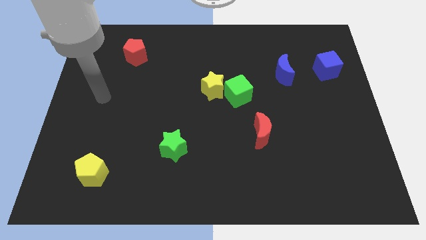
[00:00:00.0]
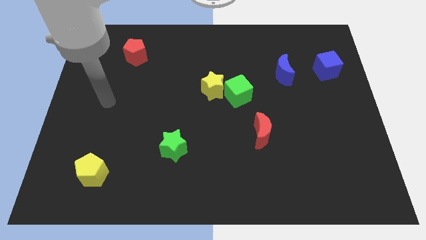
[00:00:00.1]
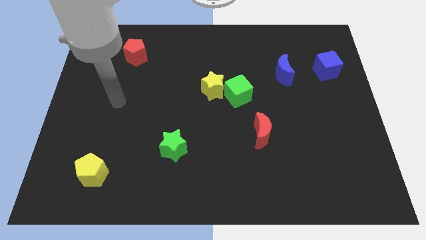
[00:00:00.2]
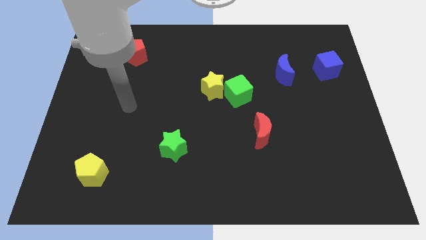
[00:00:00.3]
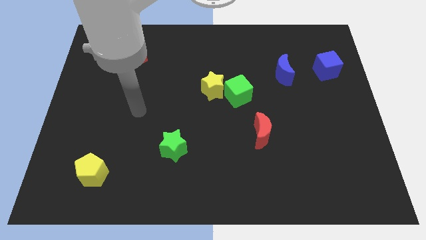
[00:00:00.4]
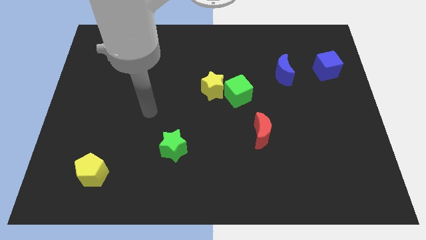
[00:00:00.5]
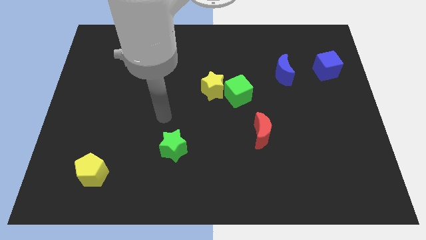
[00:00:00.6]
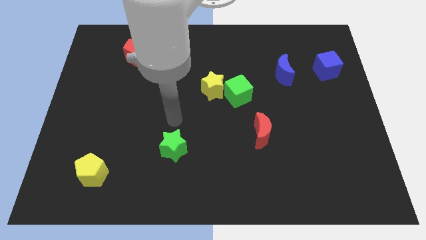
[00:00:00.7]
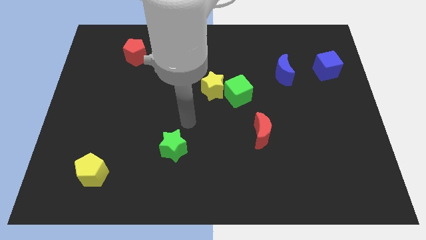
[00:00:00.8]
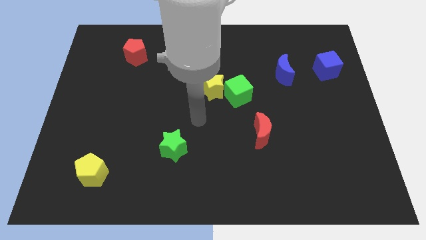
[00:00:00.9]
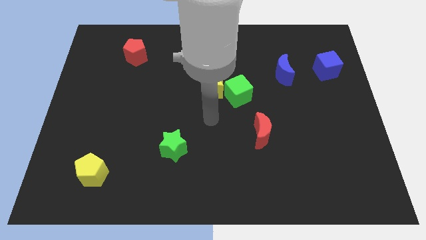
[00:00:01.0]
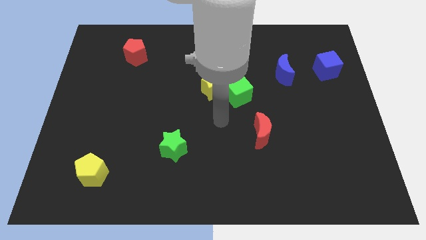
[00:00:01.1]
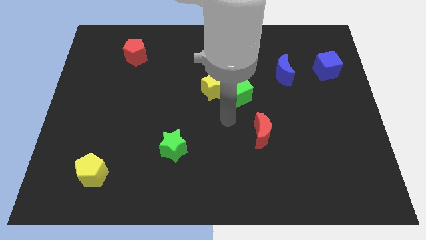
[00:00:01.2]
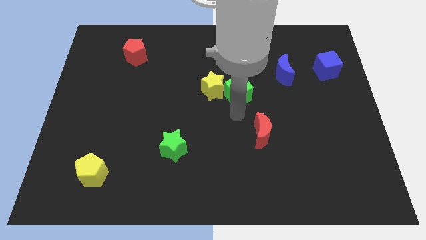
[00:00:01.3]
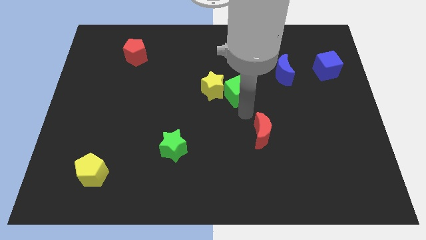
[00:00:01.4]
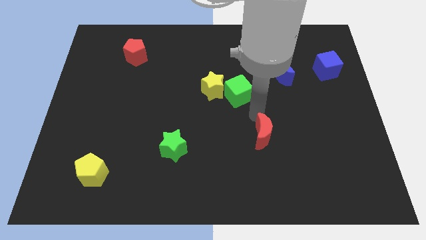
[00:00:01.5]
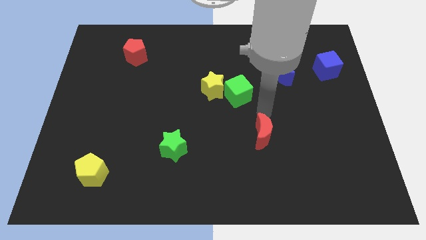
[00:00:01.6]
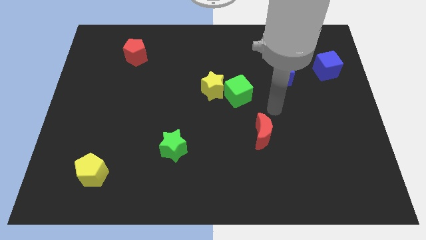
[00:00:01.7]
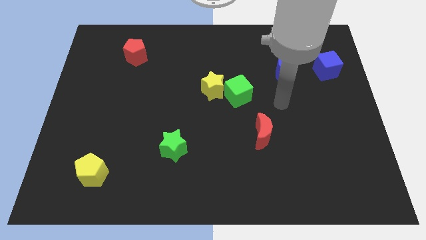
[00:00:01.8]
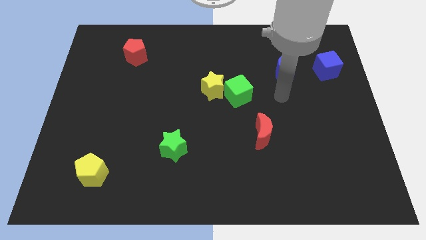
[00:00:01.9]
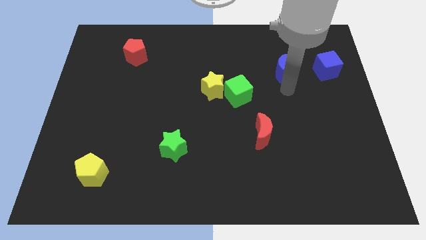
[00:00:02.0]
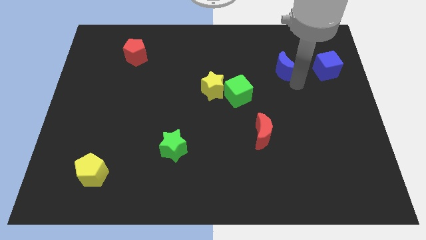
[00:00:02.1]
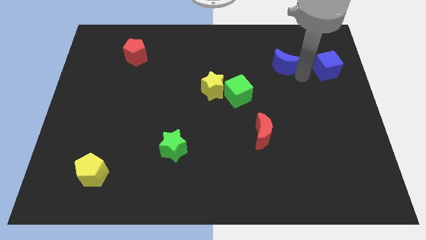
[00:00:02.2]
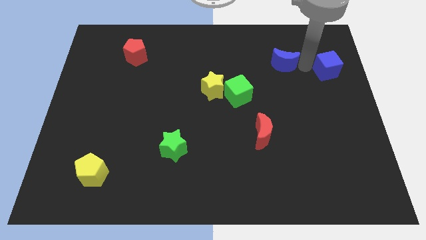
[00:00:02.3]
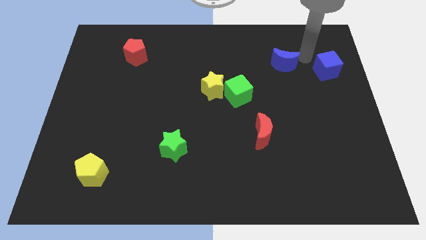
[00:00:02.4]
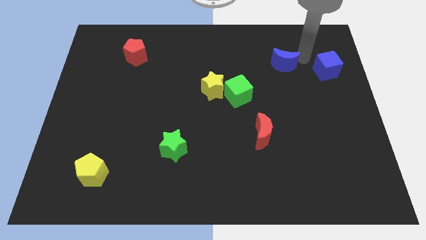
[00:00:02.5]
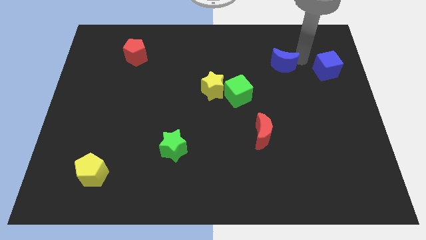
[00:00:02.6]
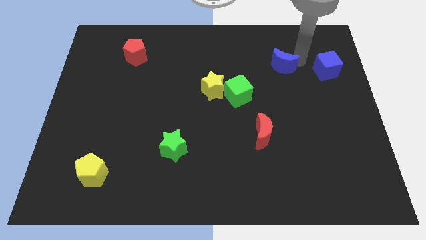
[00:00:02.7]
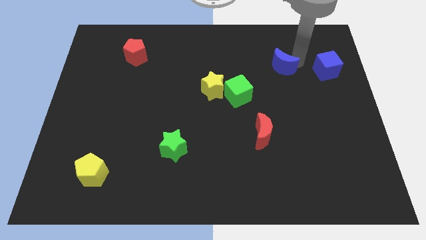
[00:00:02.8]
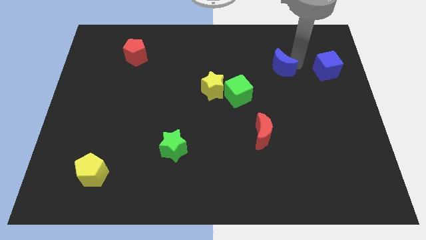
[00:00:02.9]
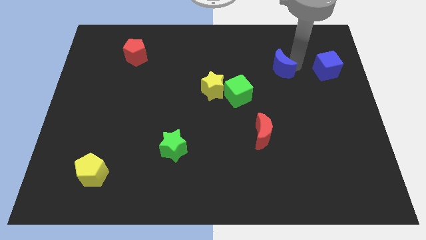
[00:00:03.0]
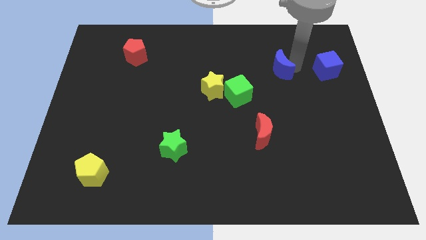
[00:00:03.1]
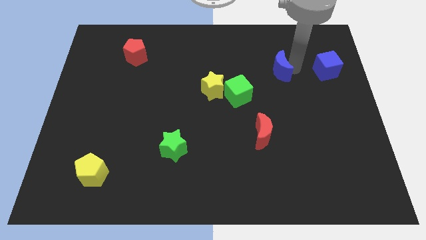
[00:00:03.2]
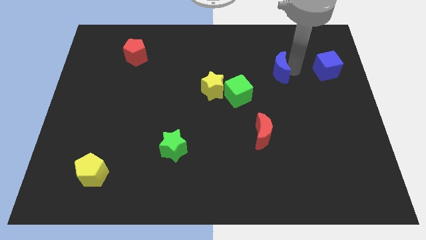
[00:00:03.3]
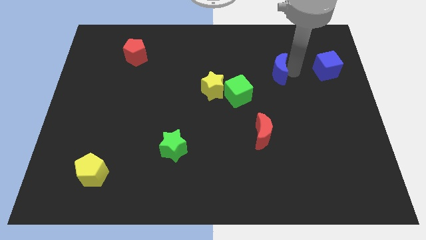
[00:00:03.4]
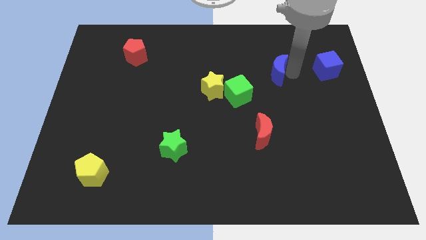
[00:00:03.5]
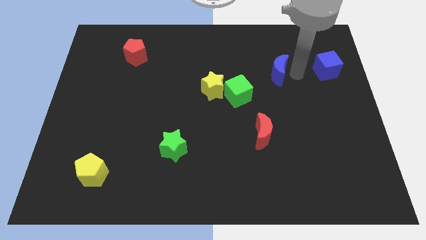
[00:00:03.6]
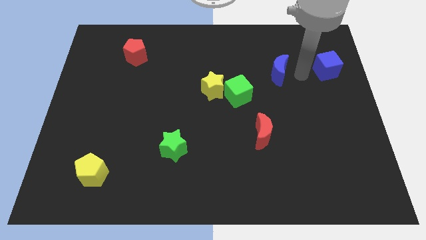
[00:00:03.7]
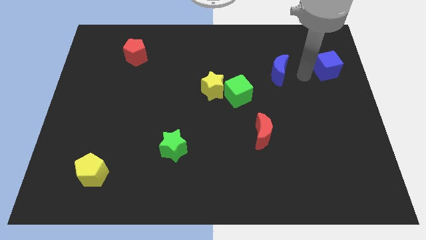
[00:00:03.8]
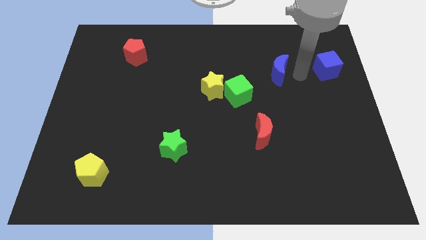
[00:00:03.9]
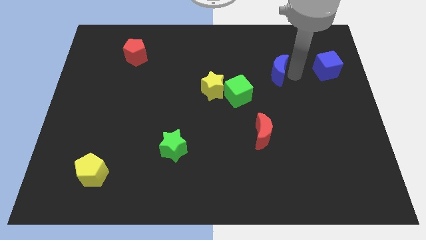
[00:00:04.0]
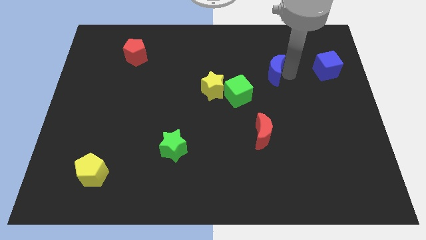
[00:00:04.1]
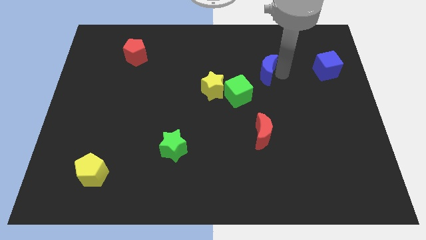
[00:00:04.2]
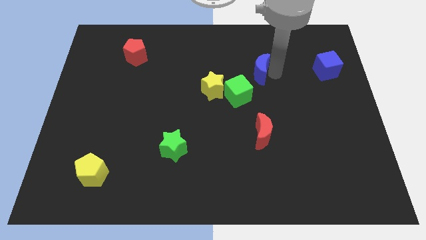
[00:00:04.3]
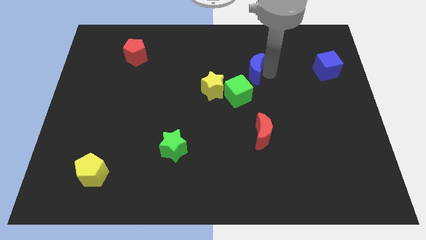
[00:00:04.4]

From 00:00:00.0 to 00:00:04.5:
push the blue moon left a bit

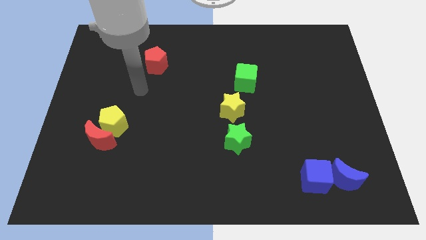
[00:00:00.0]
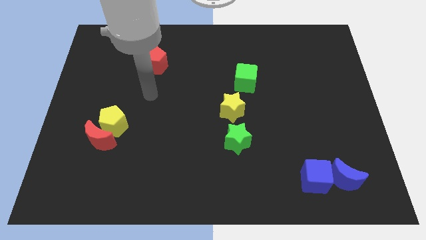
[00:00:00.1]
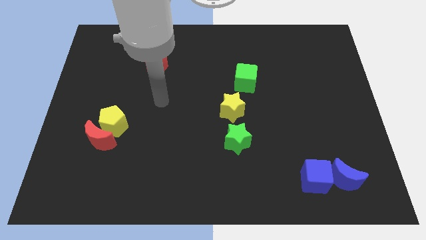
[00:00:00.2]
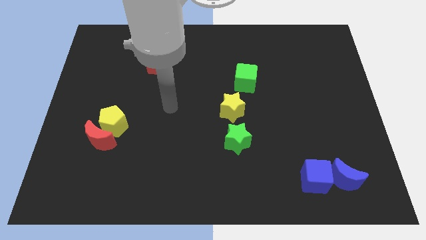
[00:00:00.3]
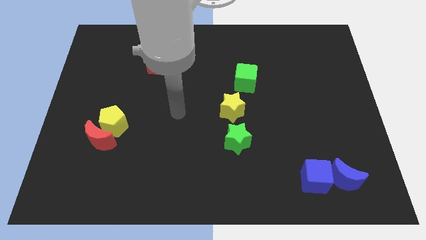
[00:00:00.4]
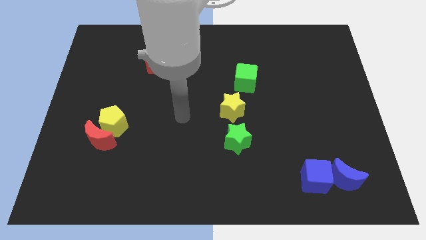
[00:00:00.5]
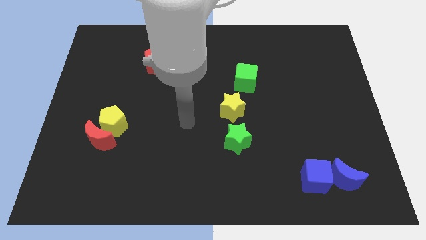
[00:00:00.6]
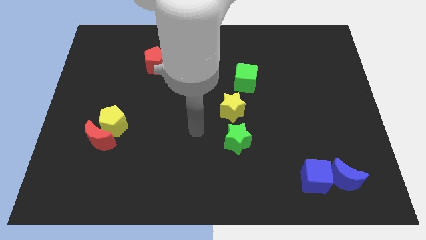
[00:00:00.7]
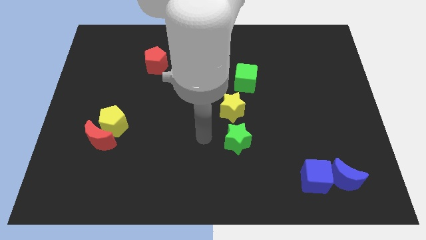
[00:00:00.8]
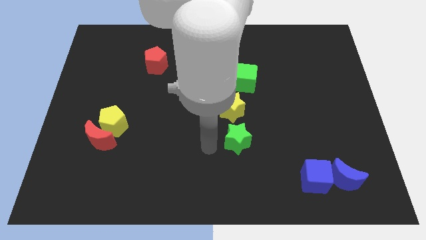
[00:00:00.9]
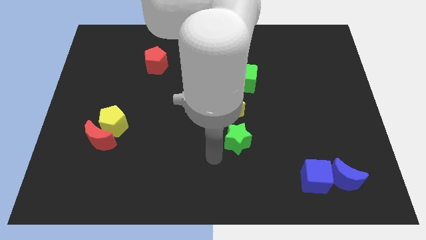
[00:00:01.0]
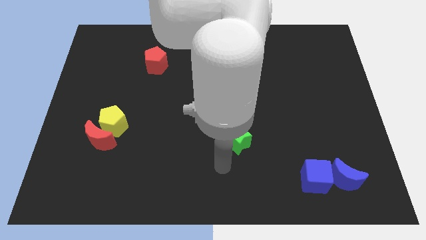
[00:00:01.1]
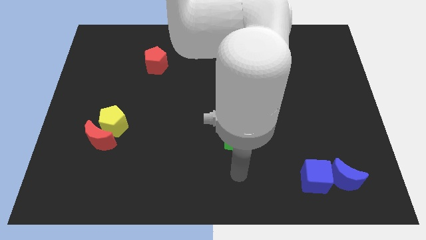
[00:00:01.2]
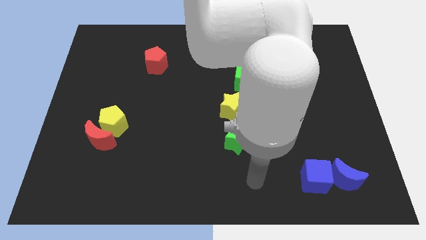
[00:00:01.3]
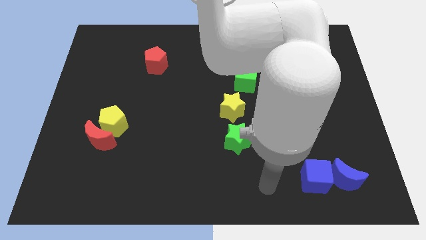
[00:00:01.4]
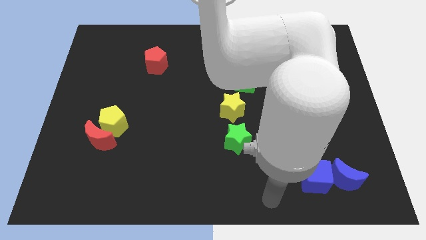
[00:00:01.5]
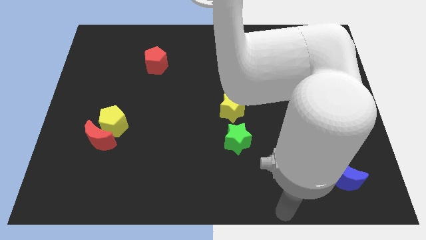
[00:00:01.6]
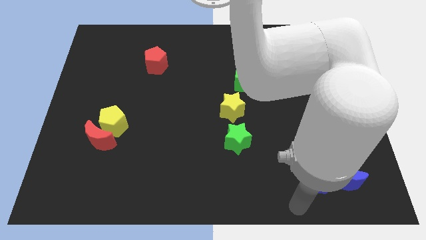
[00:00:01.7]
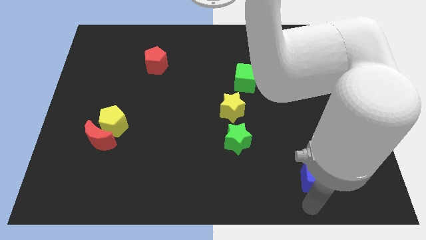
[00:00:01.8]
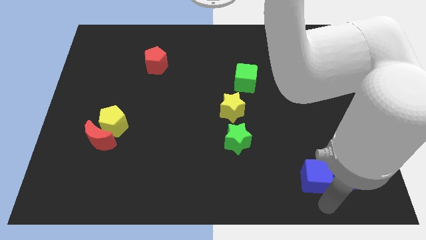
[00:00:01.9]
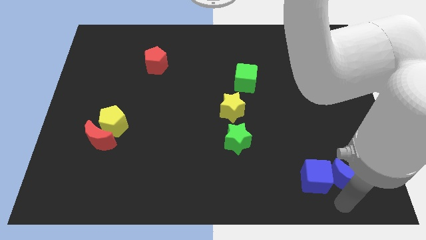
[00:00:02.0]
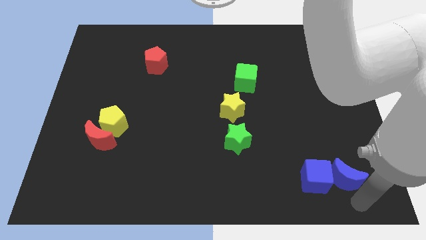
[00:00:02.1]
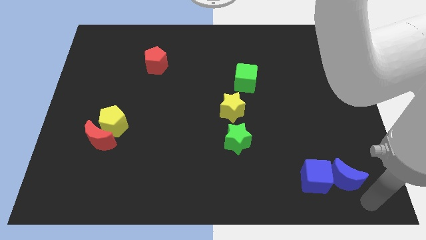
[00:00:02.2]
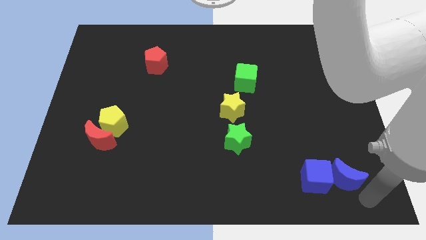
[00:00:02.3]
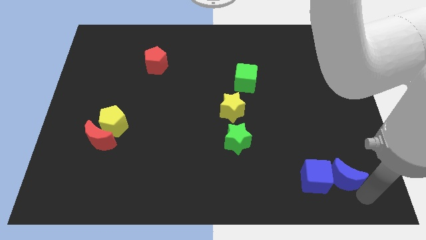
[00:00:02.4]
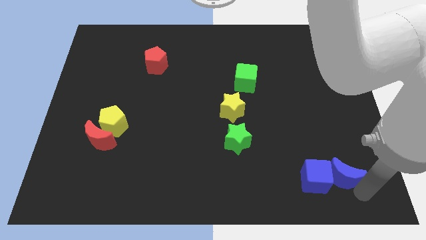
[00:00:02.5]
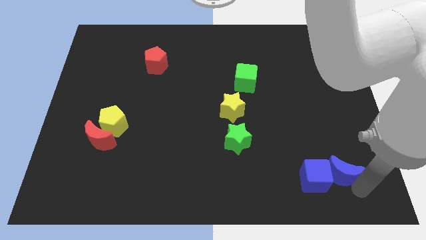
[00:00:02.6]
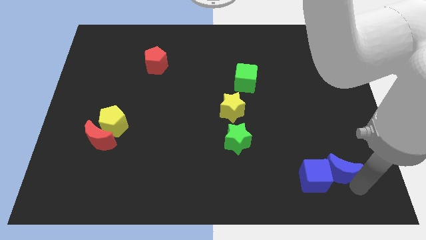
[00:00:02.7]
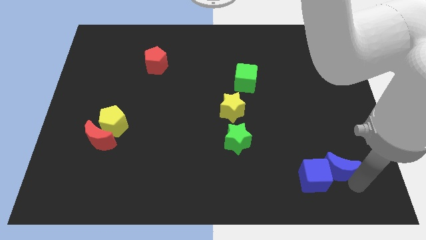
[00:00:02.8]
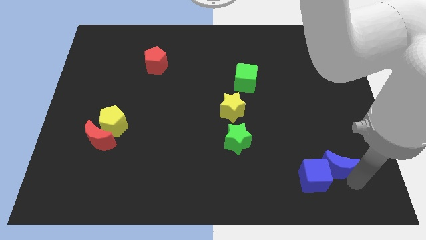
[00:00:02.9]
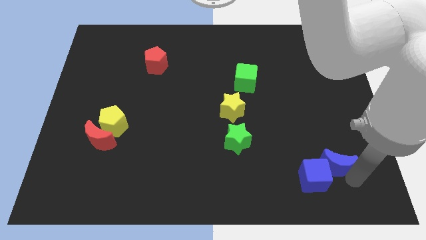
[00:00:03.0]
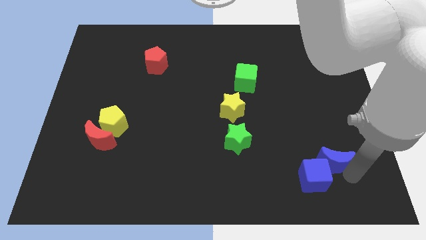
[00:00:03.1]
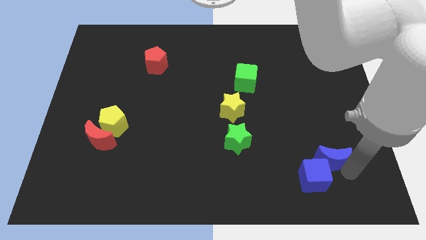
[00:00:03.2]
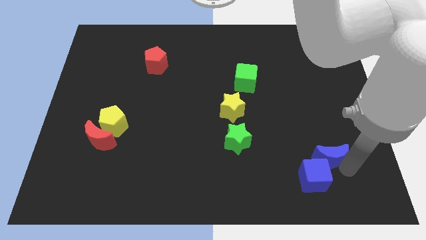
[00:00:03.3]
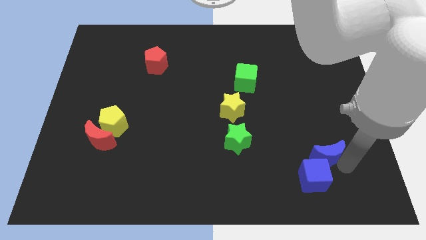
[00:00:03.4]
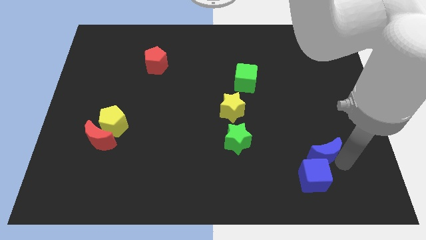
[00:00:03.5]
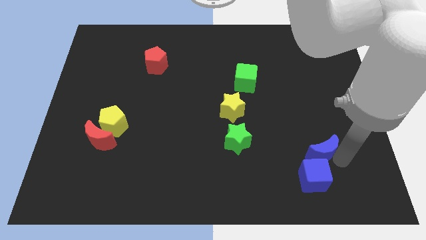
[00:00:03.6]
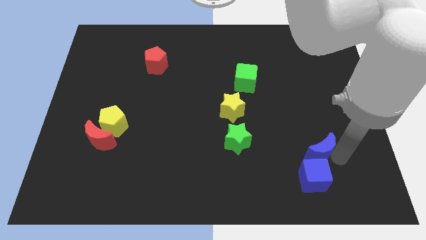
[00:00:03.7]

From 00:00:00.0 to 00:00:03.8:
move the blue moon upwards and then to the left a little
